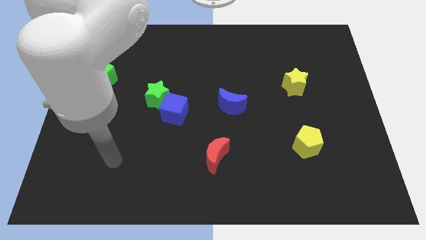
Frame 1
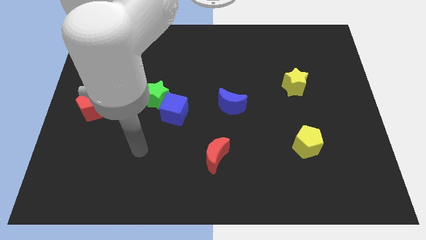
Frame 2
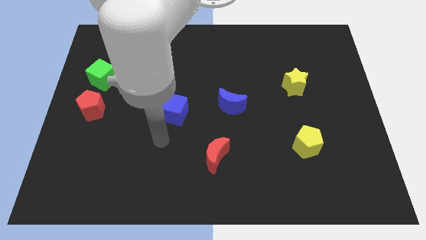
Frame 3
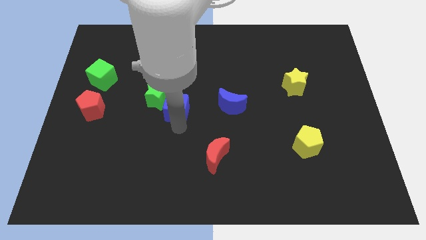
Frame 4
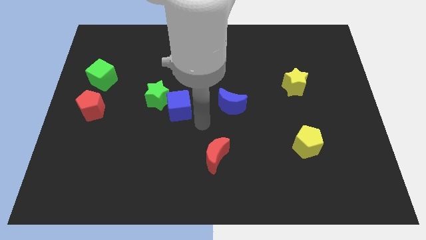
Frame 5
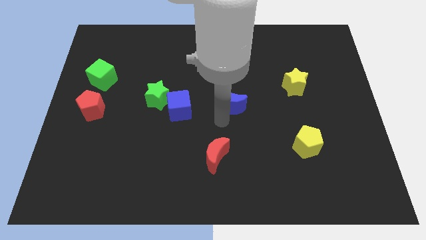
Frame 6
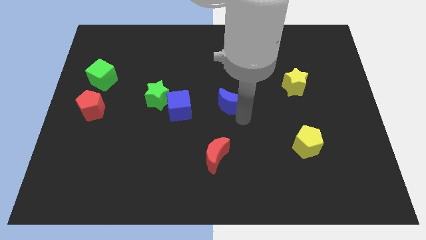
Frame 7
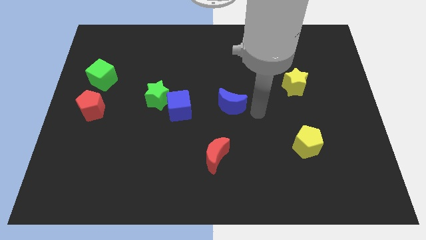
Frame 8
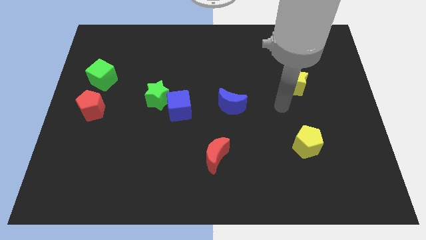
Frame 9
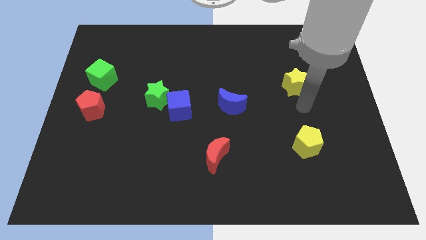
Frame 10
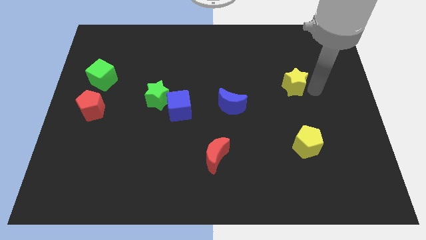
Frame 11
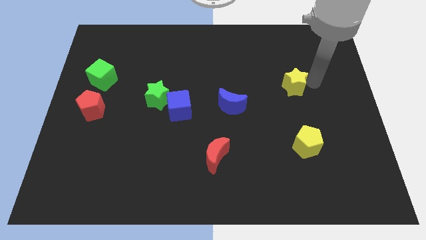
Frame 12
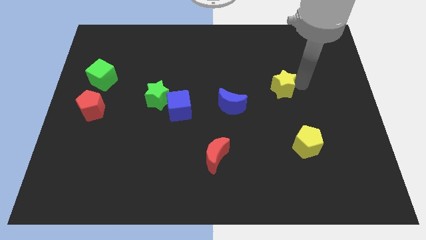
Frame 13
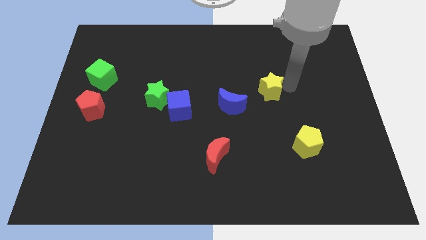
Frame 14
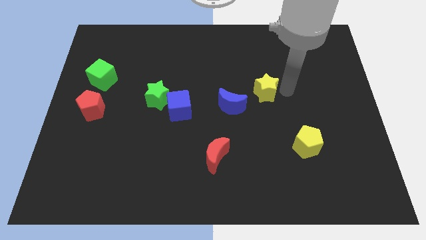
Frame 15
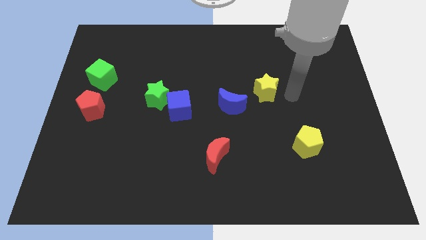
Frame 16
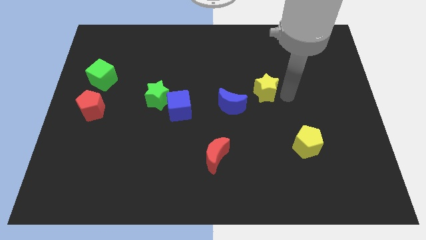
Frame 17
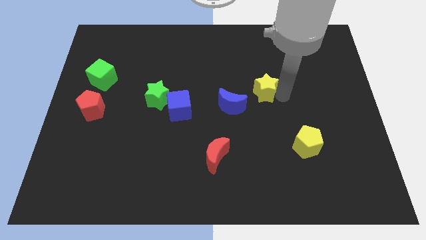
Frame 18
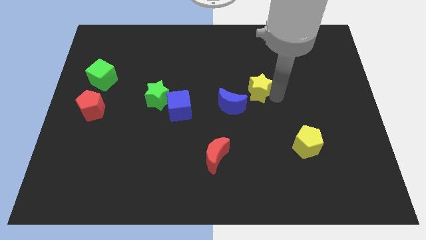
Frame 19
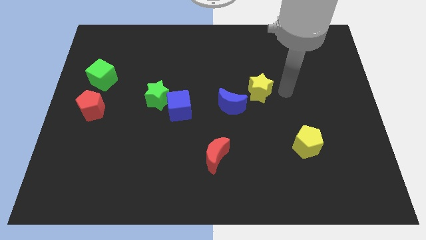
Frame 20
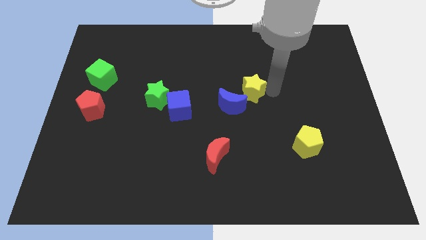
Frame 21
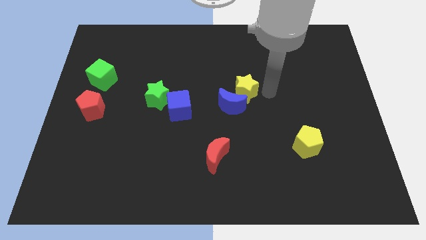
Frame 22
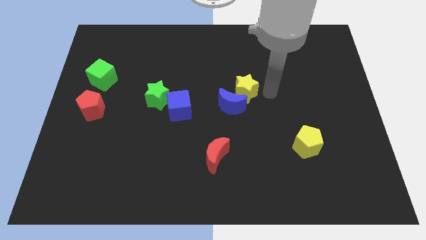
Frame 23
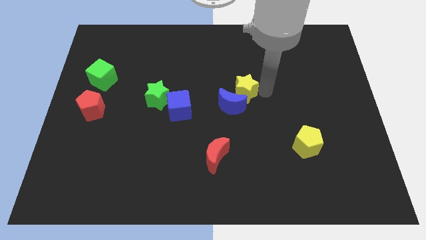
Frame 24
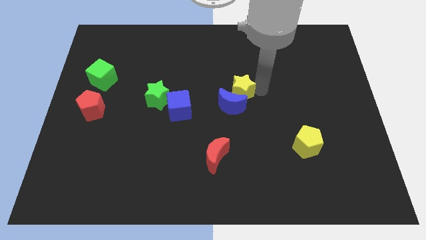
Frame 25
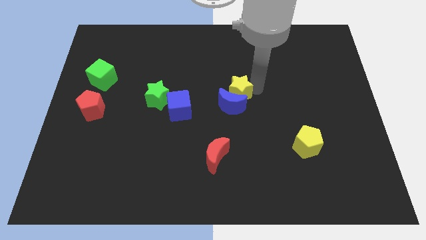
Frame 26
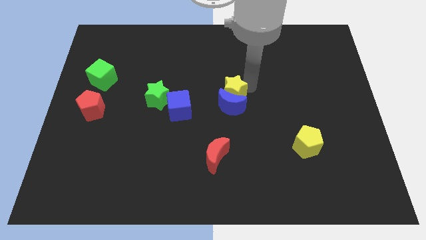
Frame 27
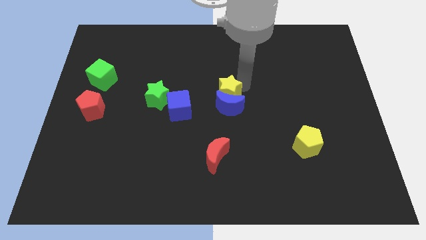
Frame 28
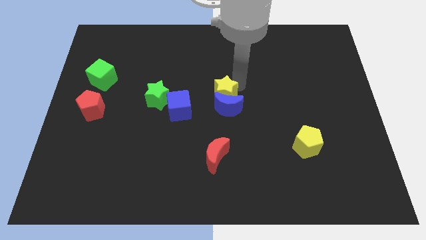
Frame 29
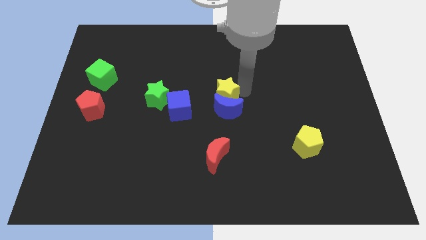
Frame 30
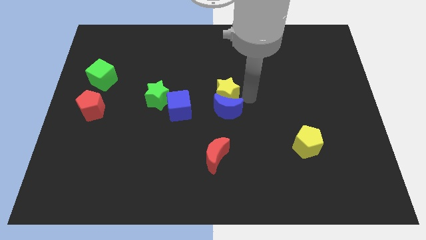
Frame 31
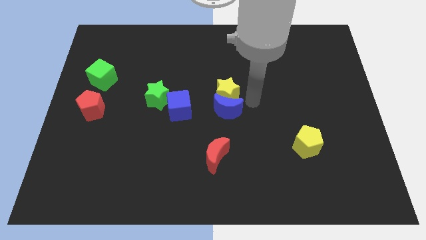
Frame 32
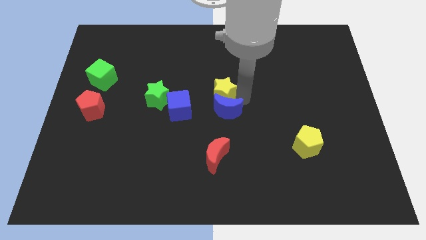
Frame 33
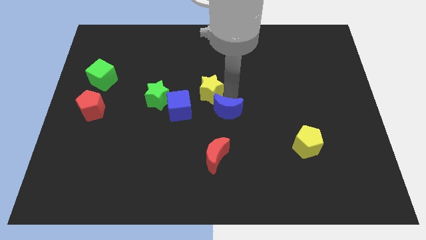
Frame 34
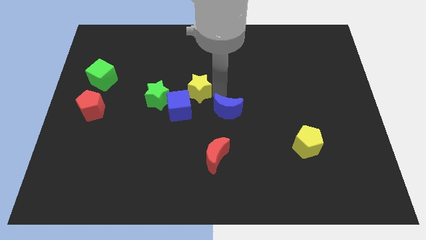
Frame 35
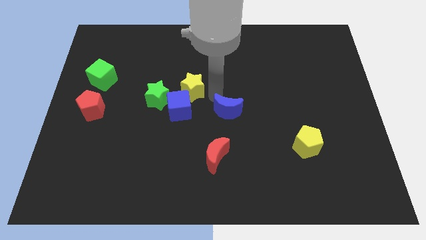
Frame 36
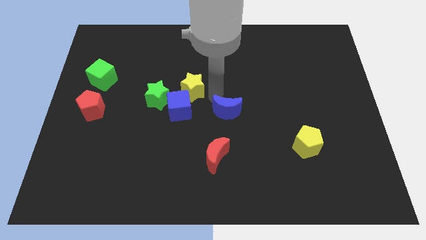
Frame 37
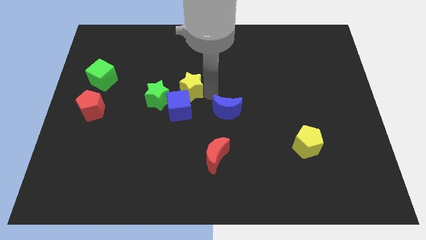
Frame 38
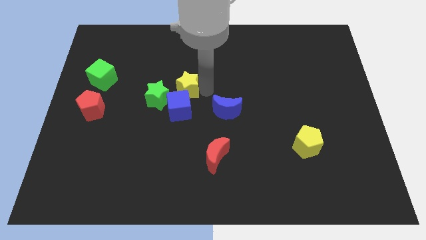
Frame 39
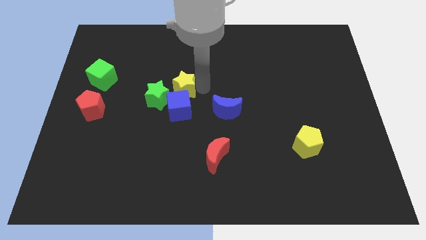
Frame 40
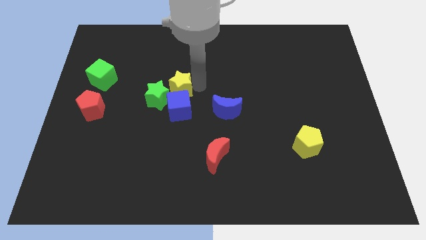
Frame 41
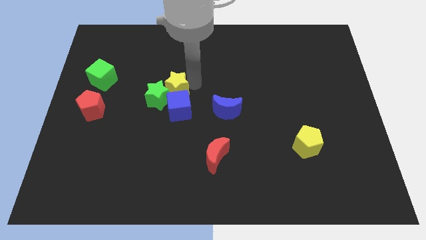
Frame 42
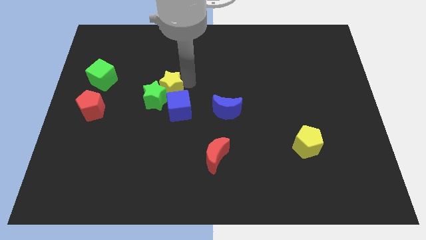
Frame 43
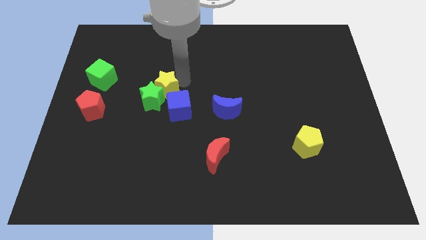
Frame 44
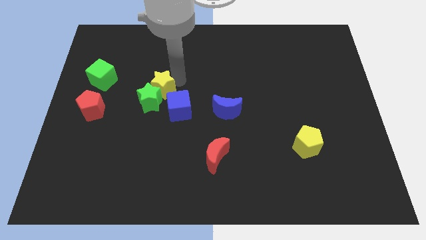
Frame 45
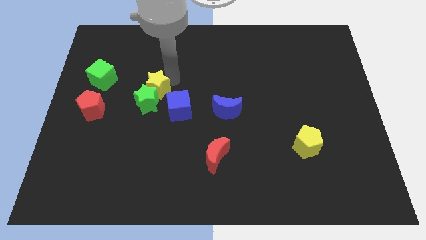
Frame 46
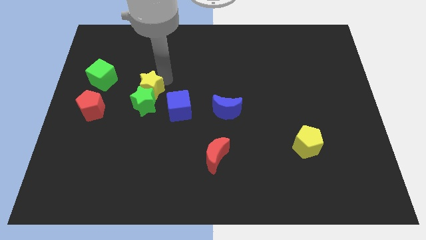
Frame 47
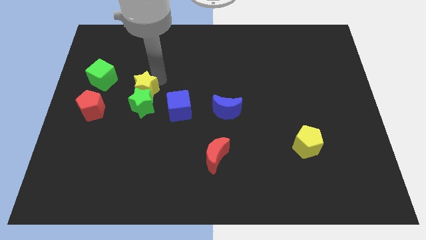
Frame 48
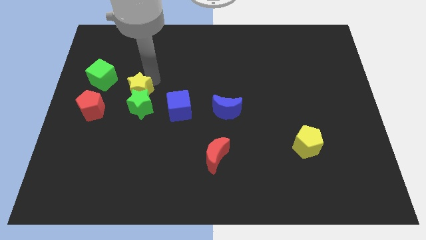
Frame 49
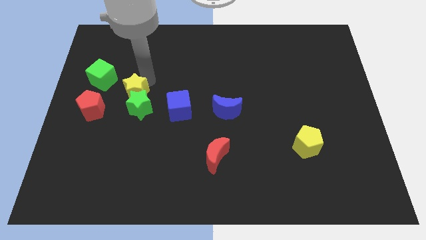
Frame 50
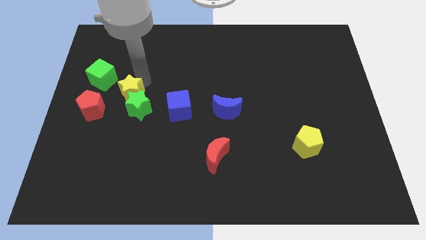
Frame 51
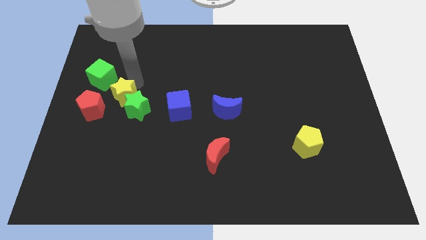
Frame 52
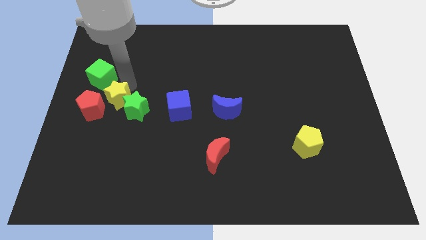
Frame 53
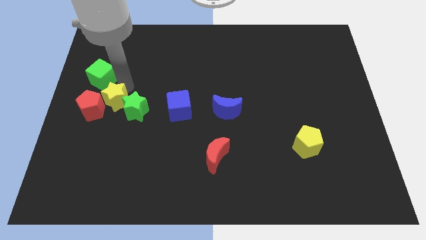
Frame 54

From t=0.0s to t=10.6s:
push the yellow star next to the red pentagon

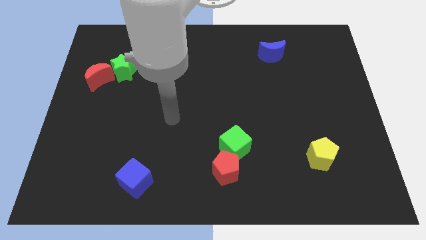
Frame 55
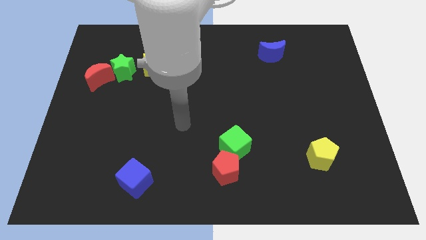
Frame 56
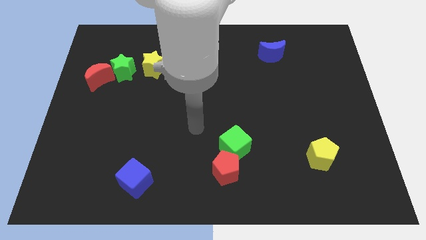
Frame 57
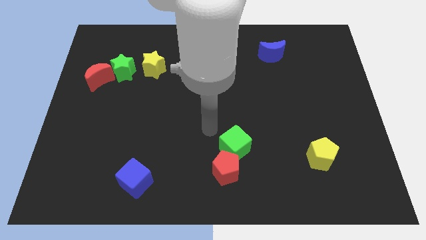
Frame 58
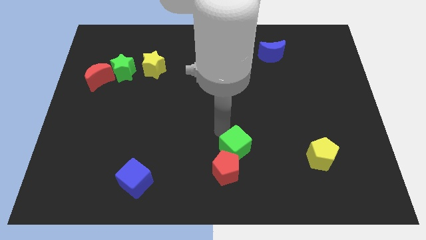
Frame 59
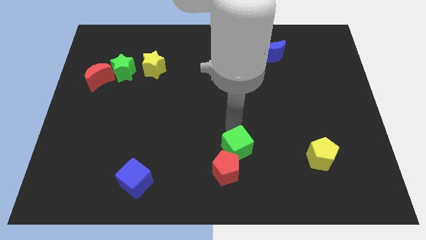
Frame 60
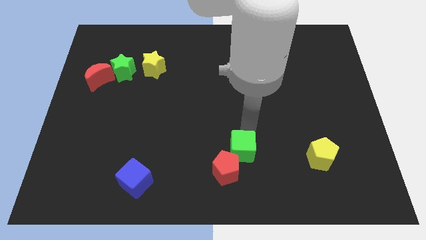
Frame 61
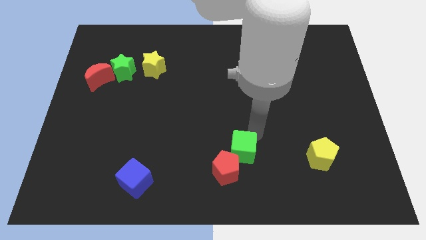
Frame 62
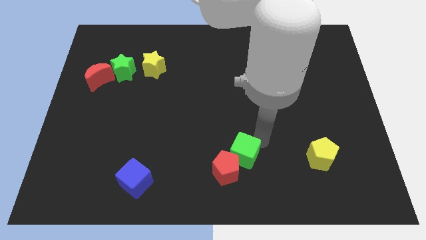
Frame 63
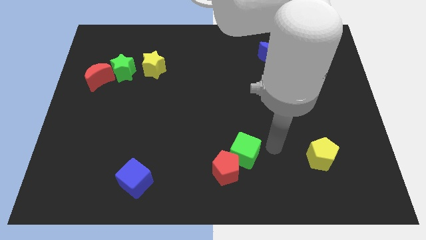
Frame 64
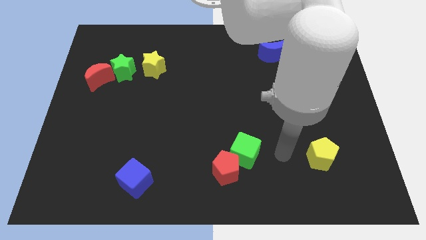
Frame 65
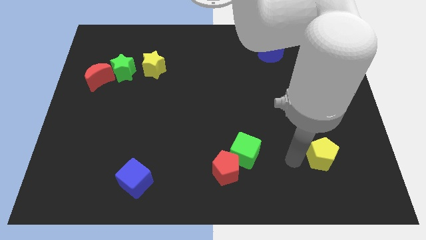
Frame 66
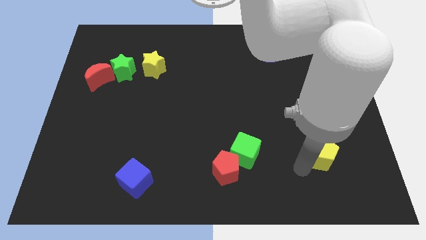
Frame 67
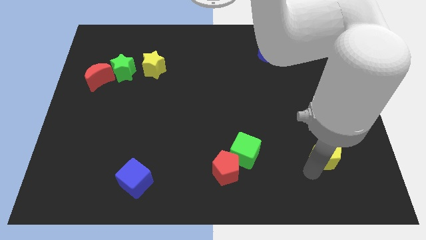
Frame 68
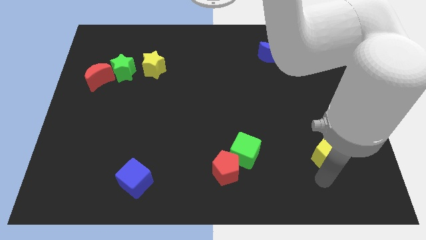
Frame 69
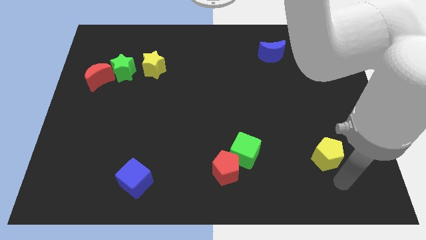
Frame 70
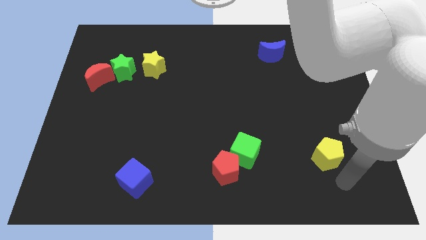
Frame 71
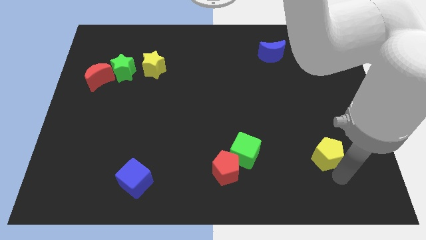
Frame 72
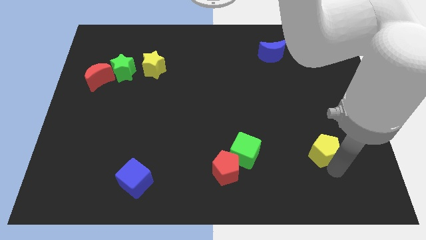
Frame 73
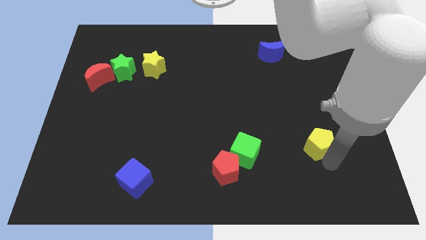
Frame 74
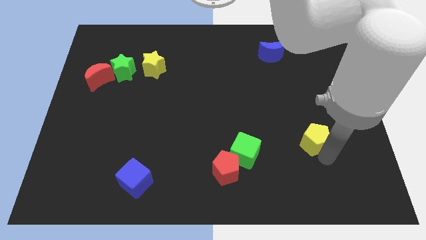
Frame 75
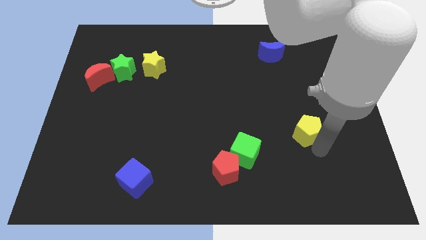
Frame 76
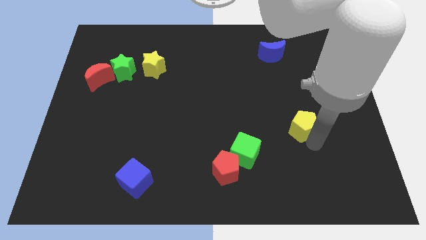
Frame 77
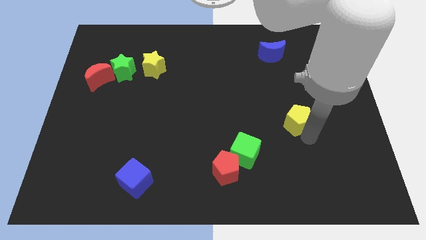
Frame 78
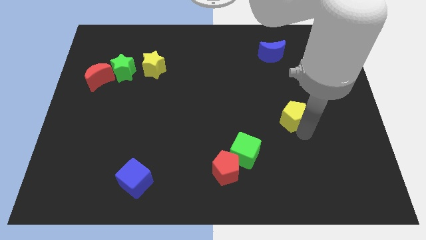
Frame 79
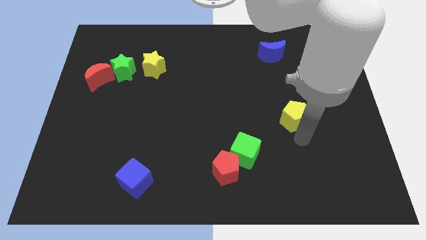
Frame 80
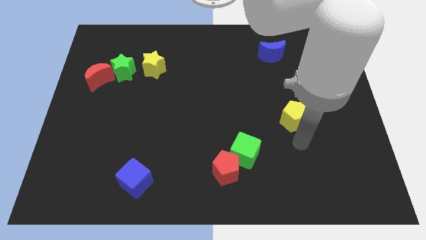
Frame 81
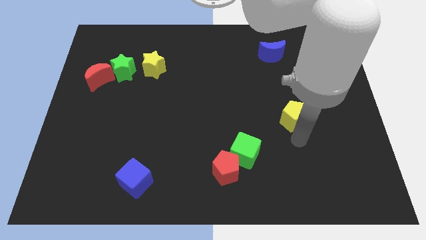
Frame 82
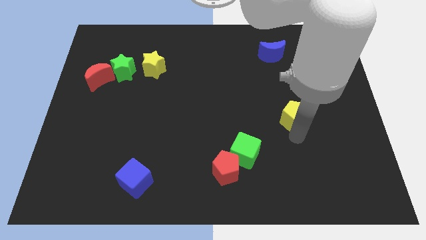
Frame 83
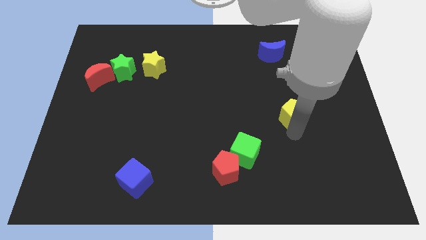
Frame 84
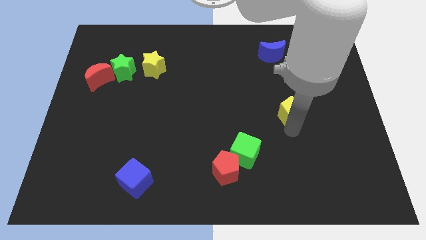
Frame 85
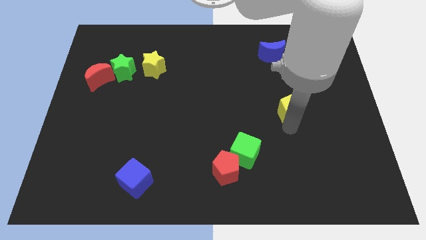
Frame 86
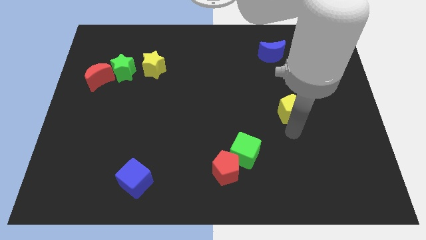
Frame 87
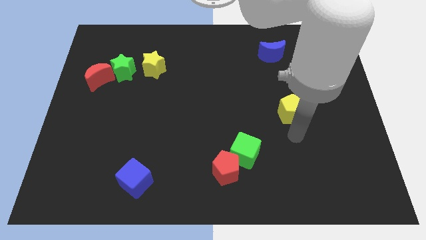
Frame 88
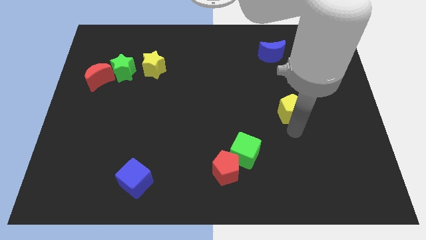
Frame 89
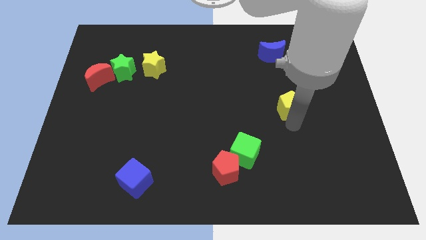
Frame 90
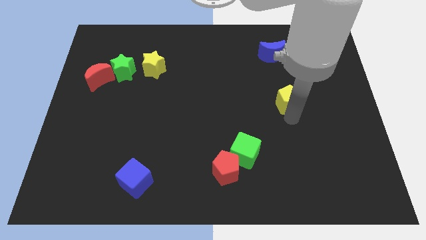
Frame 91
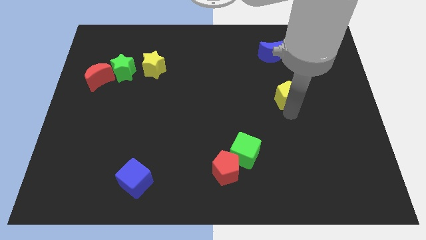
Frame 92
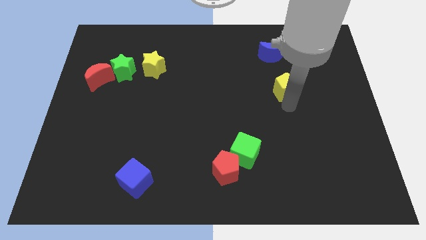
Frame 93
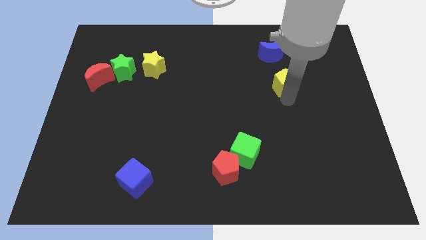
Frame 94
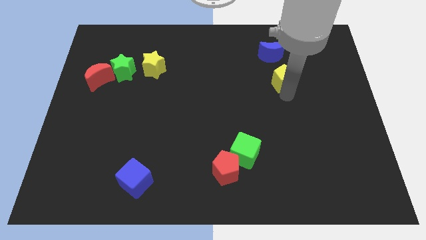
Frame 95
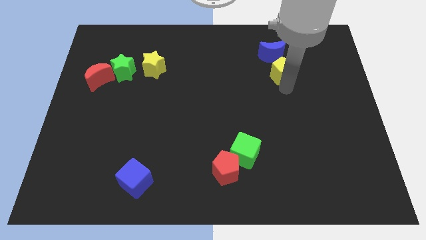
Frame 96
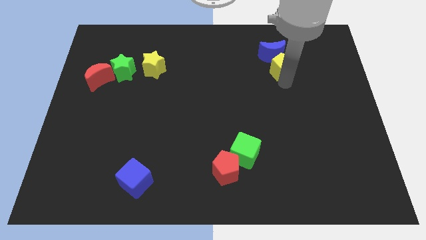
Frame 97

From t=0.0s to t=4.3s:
push the yellow pentagon close to the blue moon
